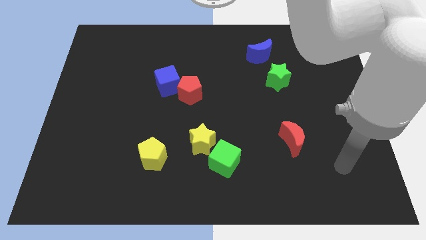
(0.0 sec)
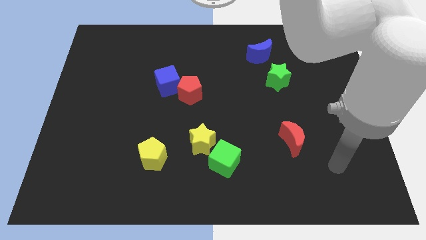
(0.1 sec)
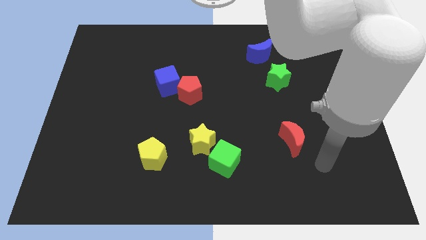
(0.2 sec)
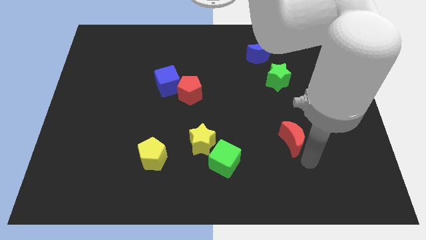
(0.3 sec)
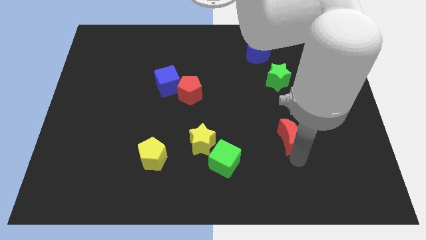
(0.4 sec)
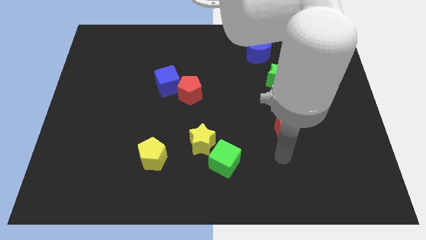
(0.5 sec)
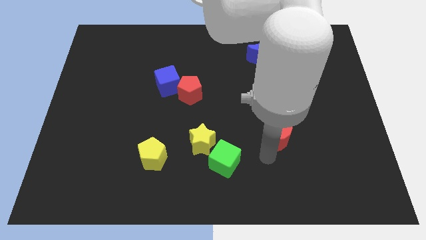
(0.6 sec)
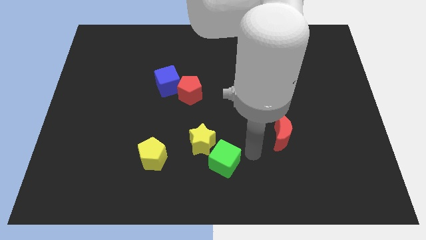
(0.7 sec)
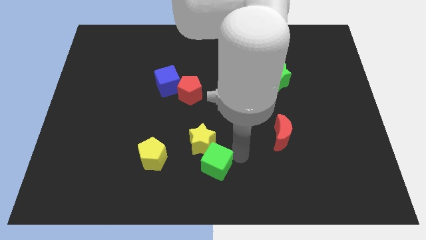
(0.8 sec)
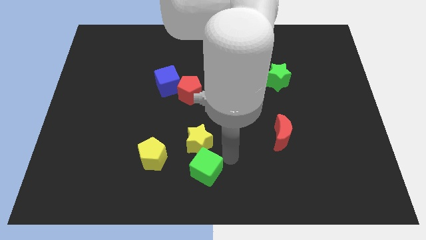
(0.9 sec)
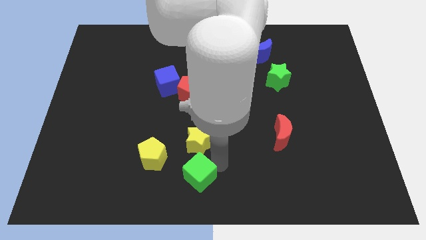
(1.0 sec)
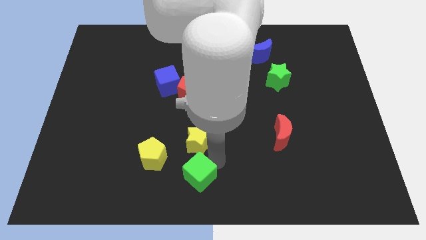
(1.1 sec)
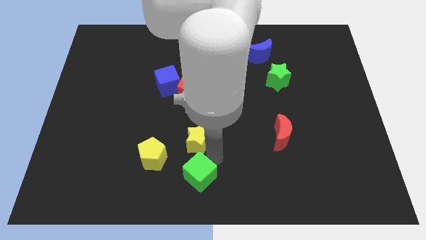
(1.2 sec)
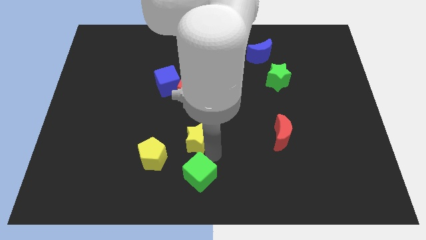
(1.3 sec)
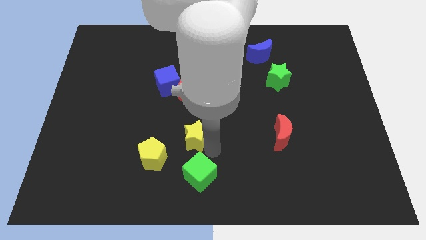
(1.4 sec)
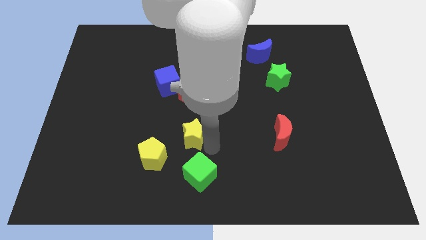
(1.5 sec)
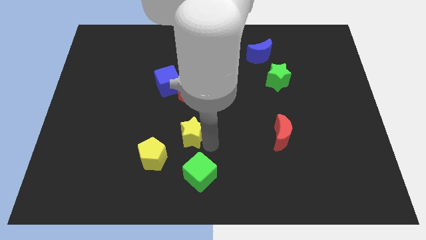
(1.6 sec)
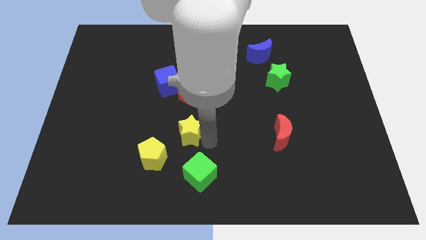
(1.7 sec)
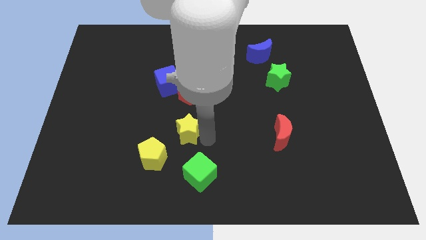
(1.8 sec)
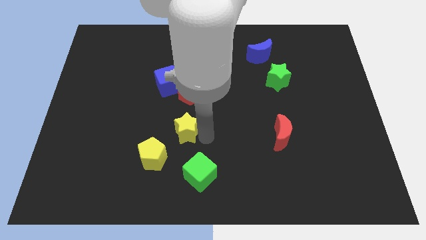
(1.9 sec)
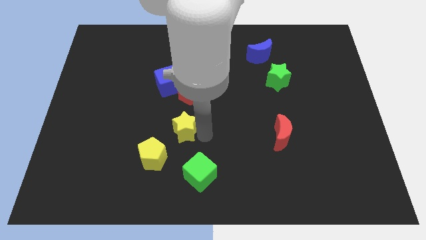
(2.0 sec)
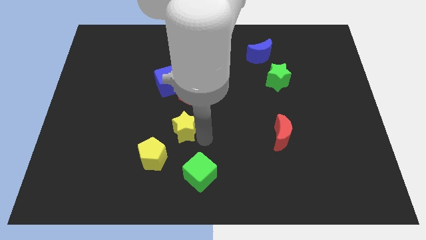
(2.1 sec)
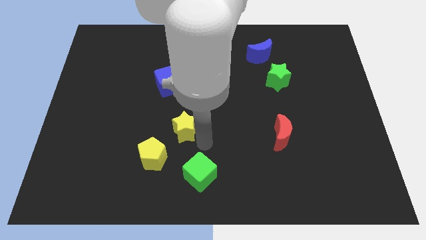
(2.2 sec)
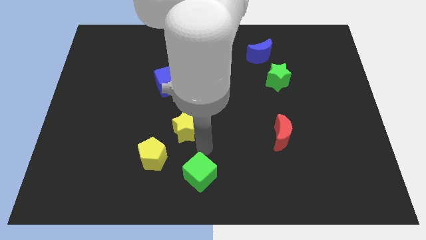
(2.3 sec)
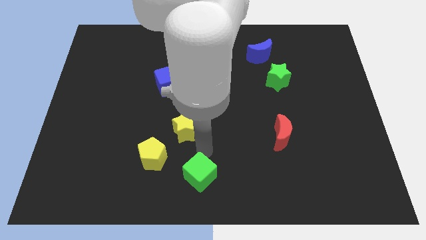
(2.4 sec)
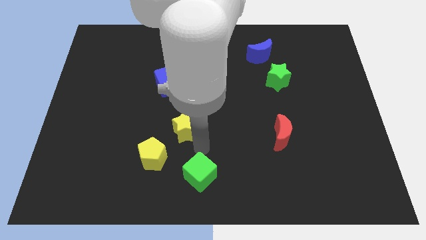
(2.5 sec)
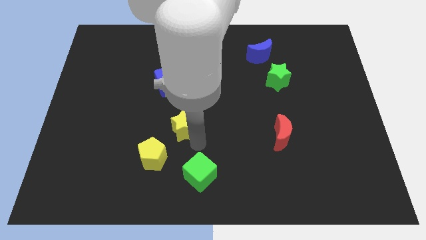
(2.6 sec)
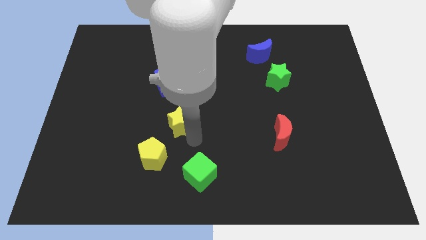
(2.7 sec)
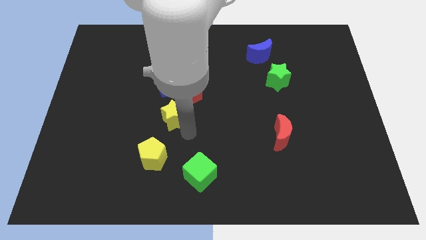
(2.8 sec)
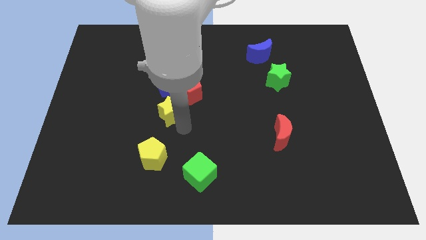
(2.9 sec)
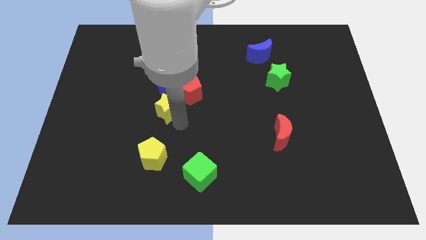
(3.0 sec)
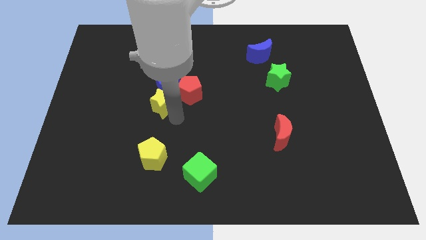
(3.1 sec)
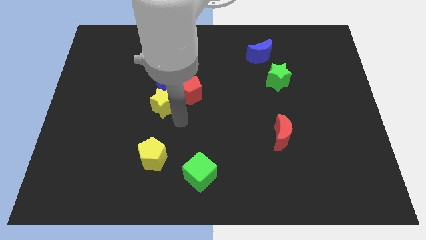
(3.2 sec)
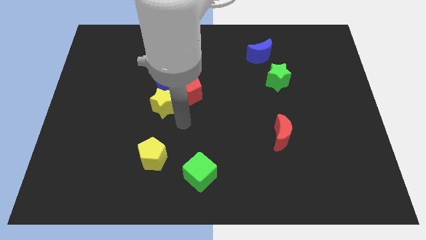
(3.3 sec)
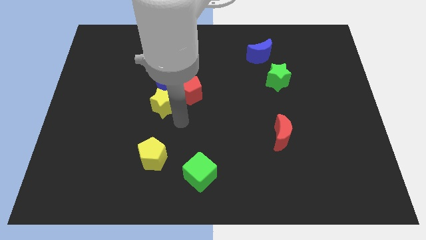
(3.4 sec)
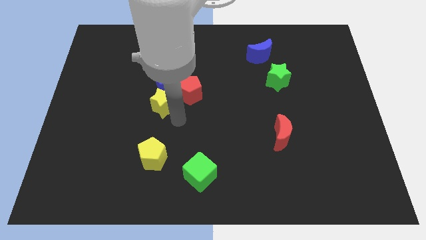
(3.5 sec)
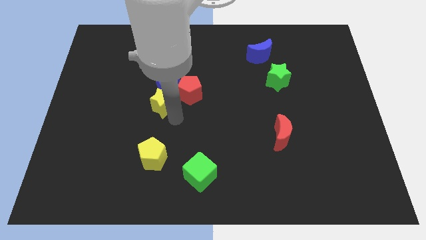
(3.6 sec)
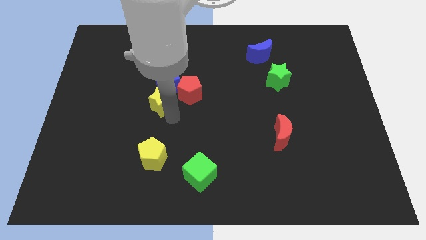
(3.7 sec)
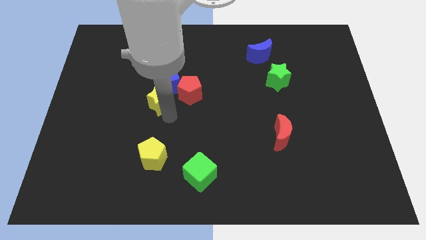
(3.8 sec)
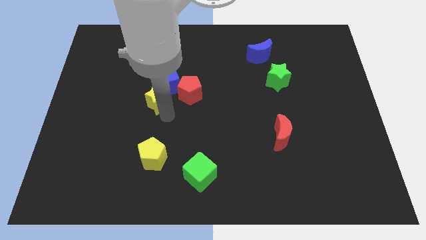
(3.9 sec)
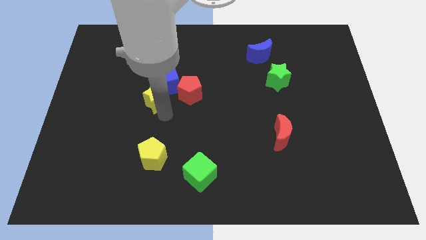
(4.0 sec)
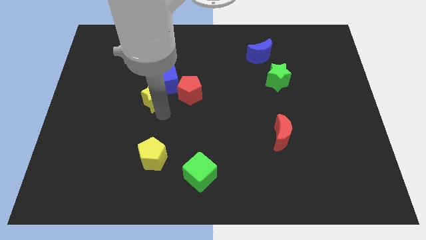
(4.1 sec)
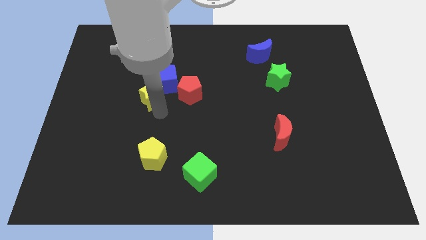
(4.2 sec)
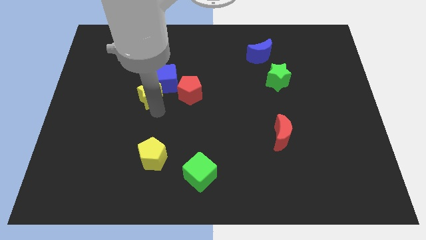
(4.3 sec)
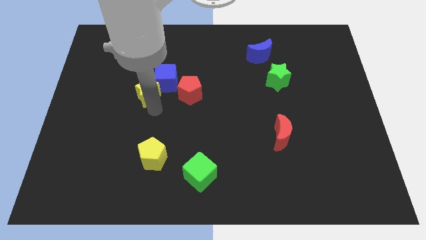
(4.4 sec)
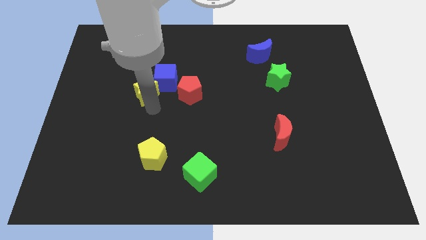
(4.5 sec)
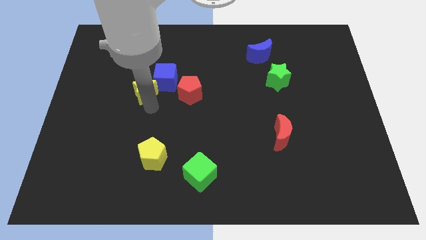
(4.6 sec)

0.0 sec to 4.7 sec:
slide the yellow star upwards and left

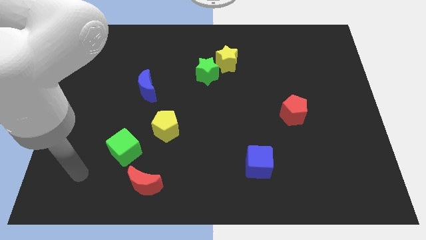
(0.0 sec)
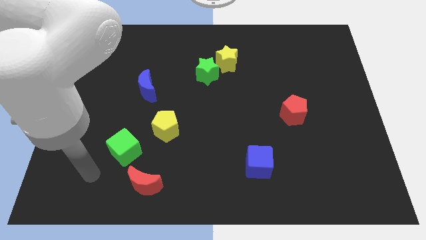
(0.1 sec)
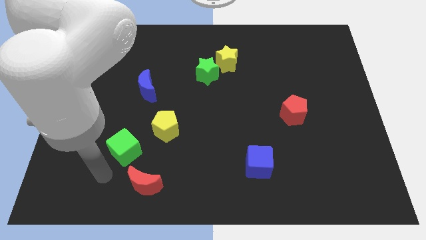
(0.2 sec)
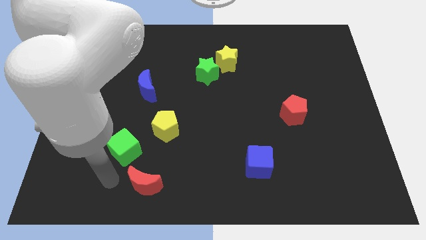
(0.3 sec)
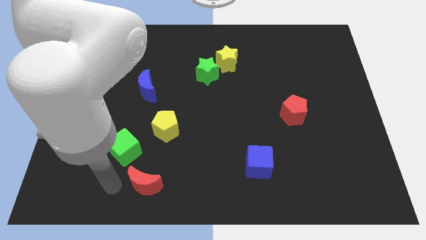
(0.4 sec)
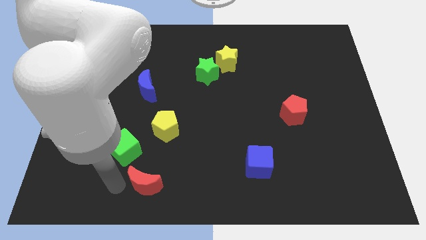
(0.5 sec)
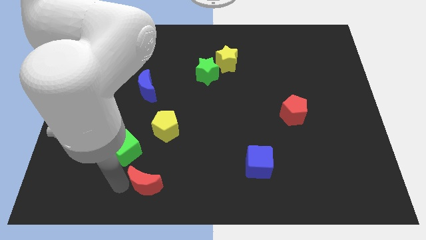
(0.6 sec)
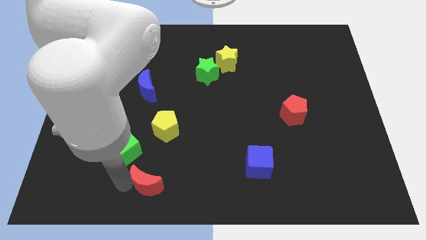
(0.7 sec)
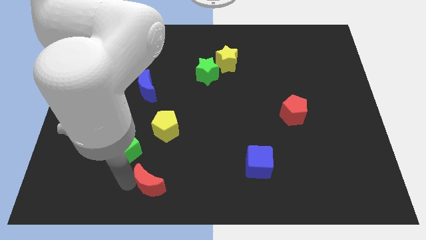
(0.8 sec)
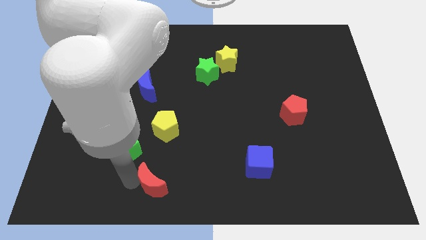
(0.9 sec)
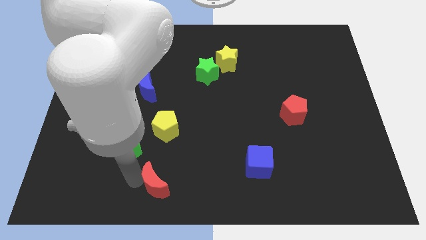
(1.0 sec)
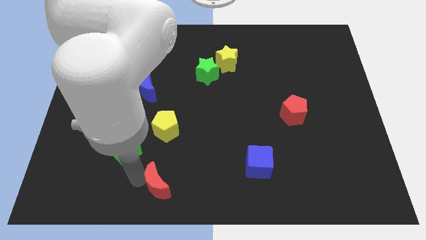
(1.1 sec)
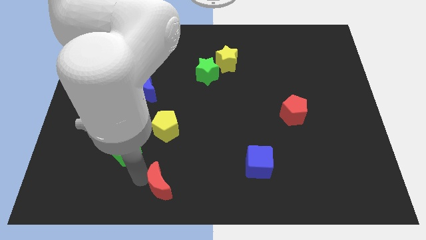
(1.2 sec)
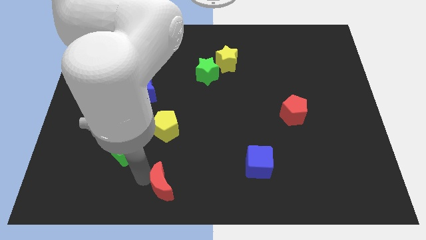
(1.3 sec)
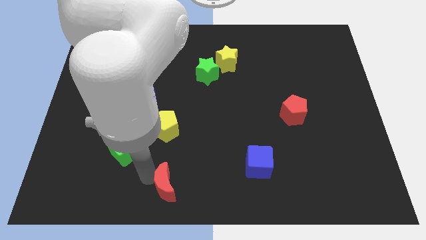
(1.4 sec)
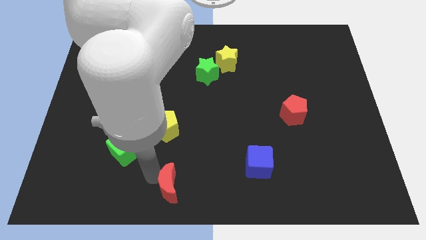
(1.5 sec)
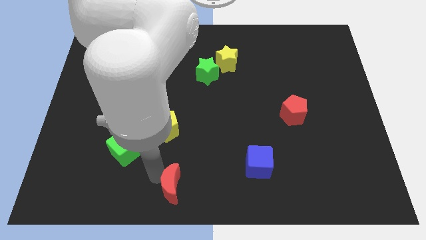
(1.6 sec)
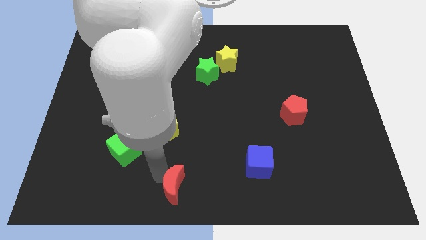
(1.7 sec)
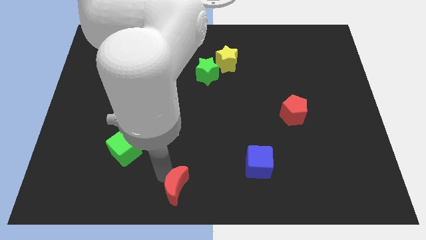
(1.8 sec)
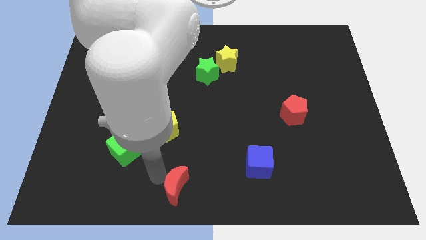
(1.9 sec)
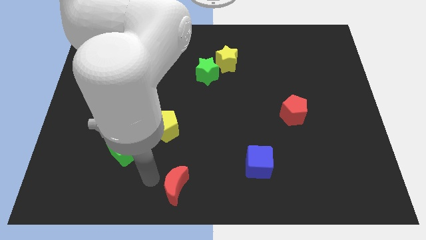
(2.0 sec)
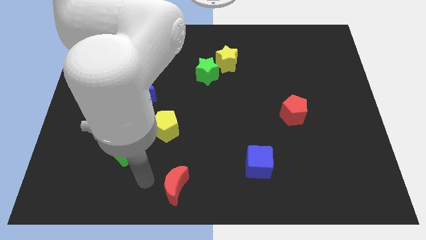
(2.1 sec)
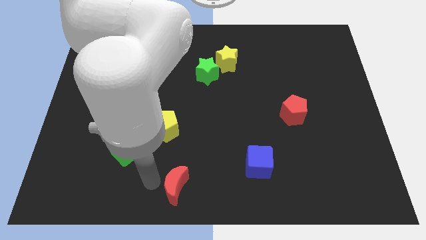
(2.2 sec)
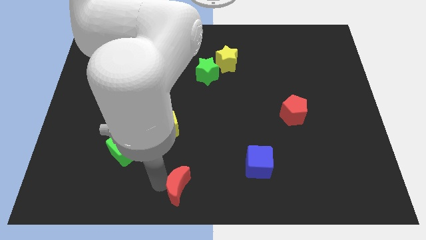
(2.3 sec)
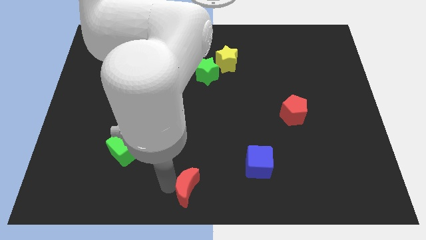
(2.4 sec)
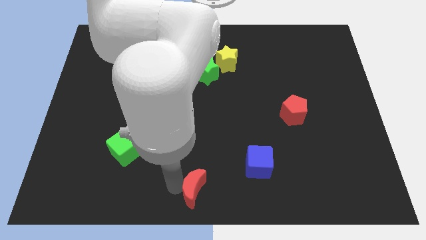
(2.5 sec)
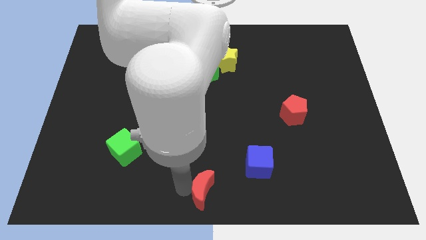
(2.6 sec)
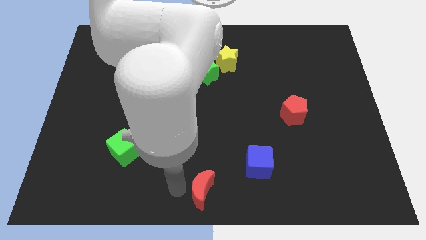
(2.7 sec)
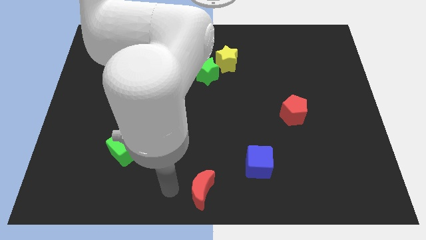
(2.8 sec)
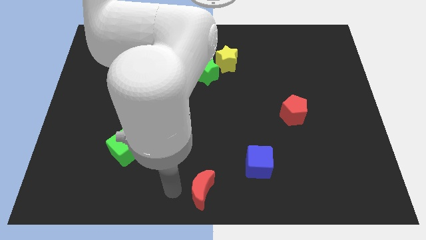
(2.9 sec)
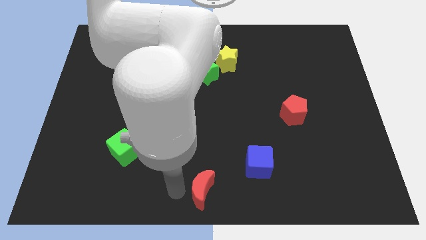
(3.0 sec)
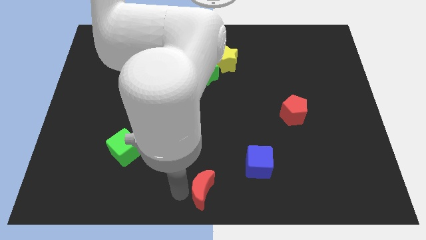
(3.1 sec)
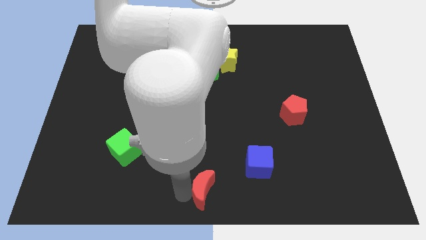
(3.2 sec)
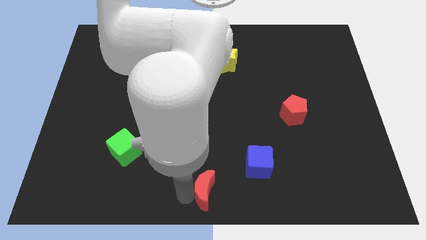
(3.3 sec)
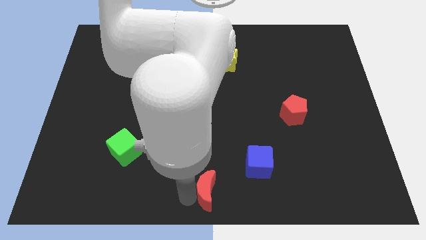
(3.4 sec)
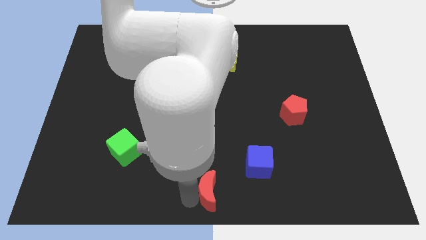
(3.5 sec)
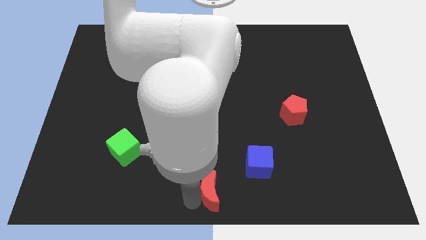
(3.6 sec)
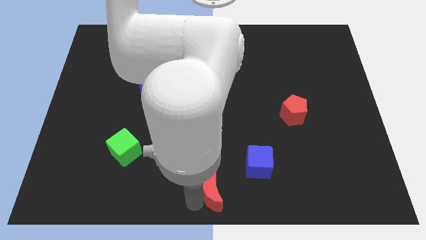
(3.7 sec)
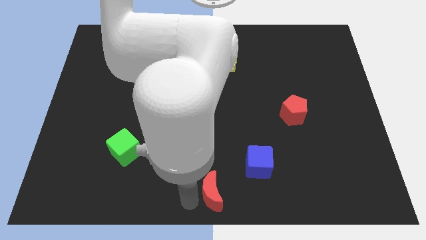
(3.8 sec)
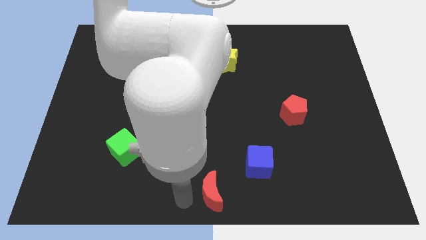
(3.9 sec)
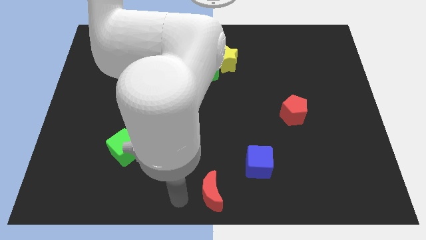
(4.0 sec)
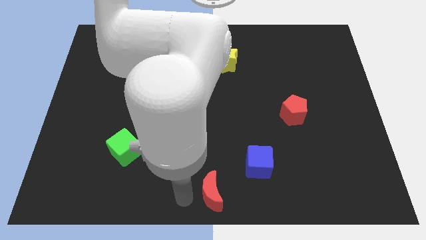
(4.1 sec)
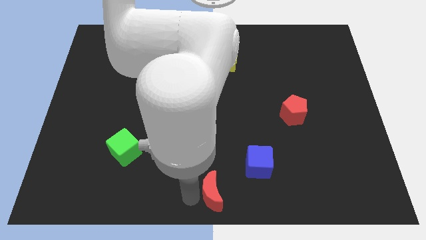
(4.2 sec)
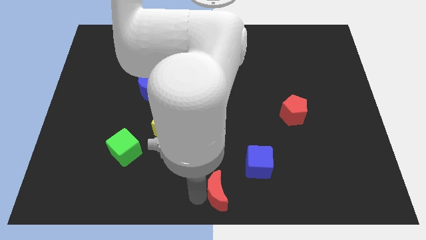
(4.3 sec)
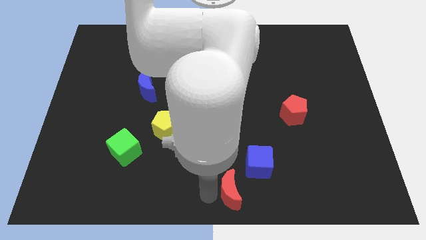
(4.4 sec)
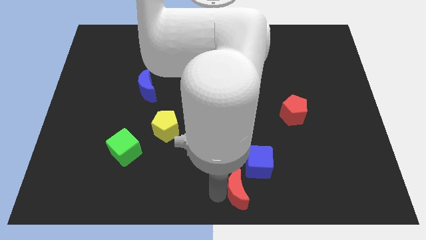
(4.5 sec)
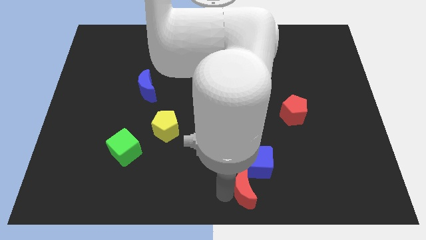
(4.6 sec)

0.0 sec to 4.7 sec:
move the red moon to the right
